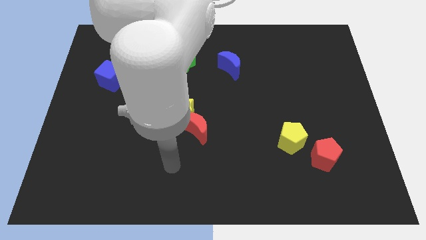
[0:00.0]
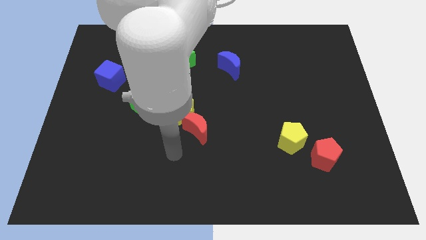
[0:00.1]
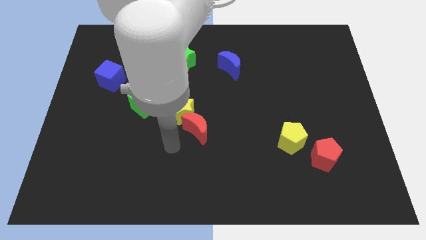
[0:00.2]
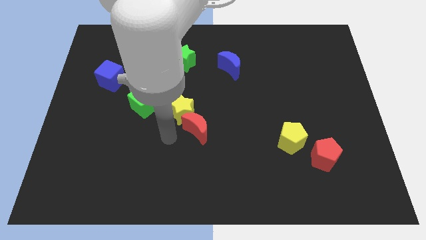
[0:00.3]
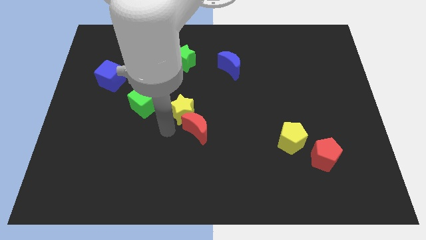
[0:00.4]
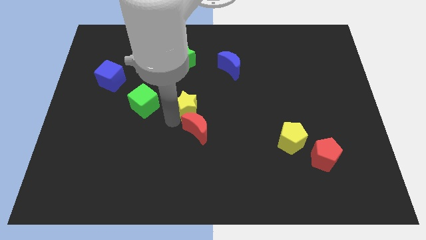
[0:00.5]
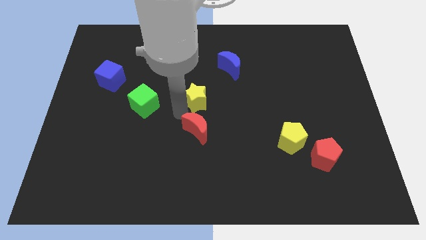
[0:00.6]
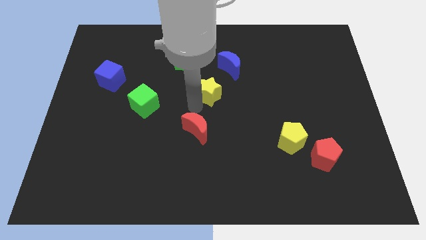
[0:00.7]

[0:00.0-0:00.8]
move the red moon away from the yellow star

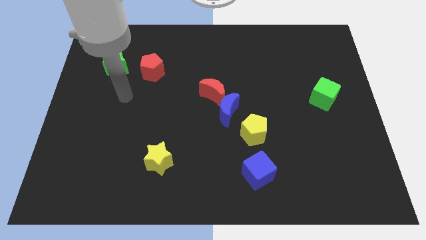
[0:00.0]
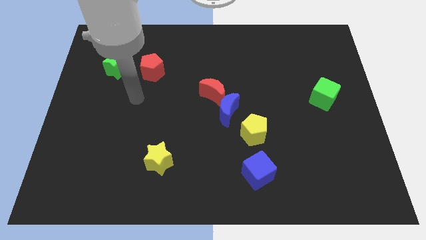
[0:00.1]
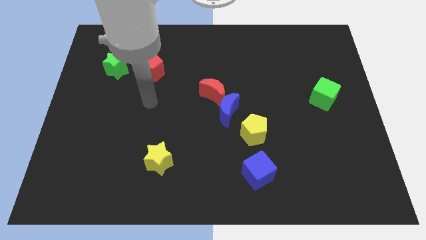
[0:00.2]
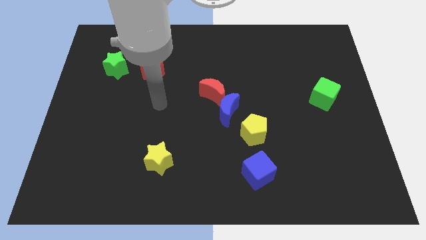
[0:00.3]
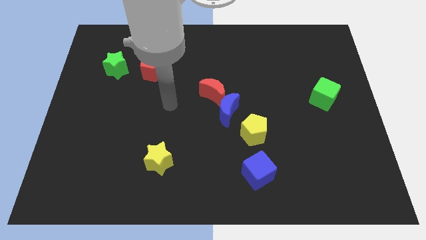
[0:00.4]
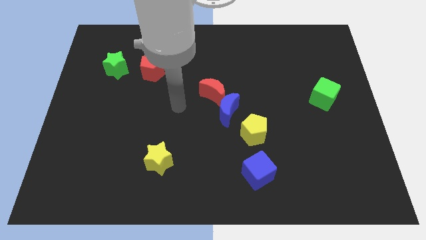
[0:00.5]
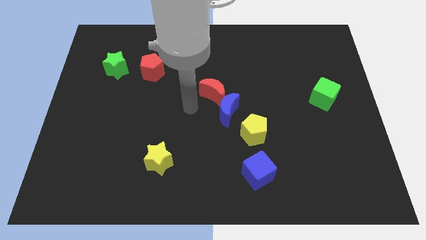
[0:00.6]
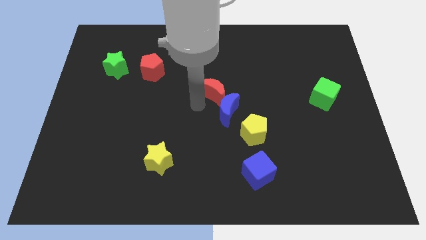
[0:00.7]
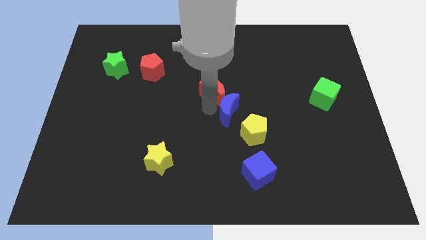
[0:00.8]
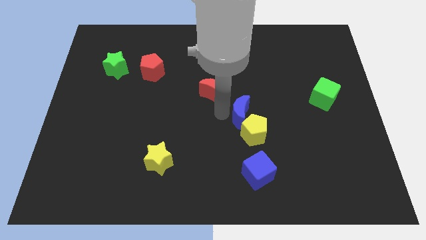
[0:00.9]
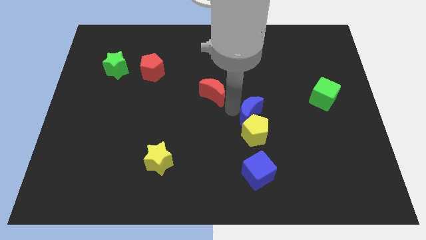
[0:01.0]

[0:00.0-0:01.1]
move the red moon away from the blue moon

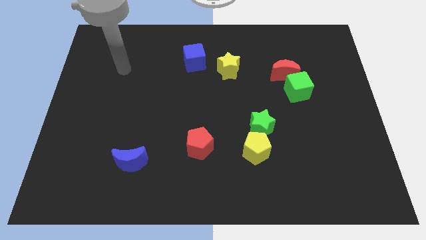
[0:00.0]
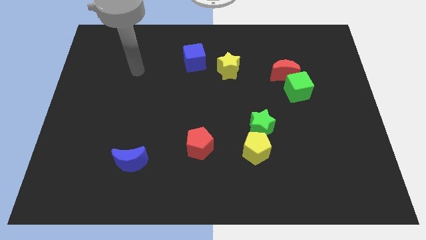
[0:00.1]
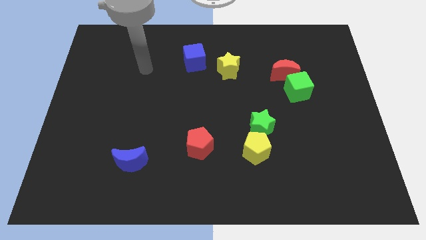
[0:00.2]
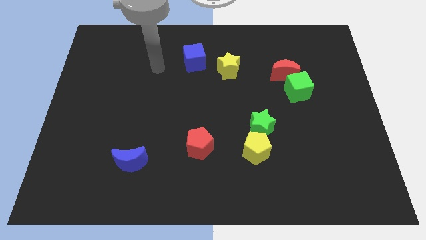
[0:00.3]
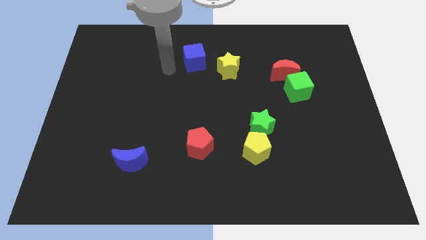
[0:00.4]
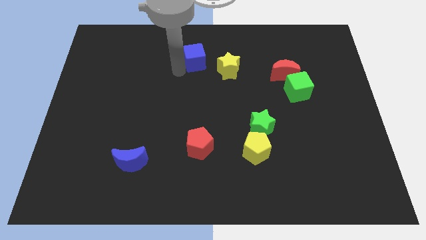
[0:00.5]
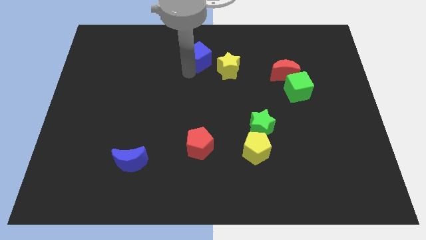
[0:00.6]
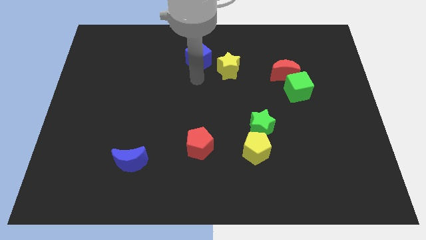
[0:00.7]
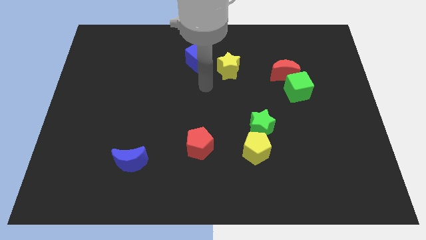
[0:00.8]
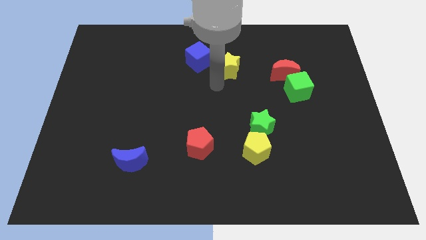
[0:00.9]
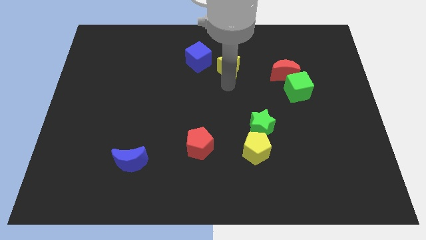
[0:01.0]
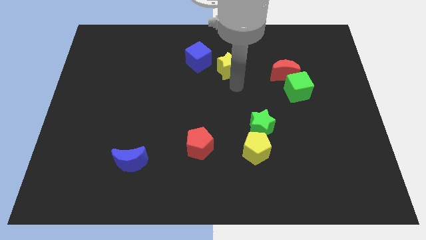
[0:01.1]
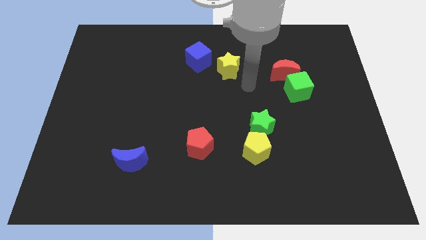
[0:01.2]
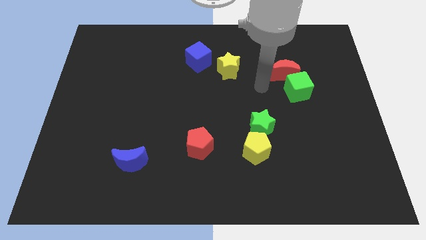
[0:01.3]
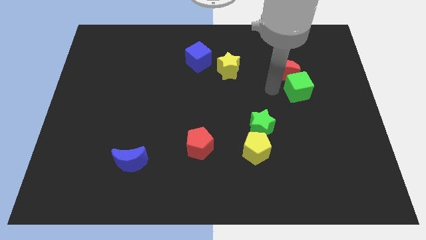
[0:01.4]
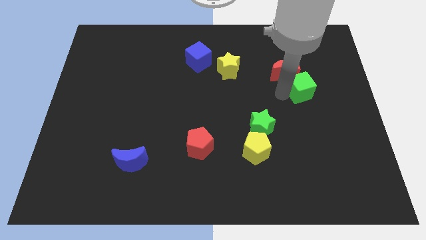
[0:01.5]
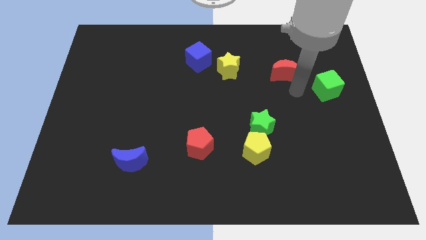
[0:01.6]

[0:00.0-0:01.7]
move the red moon away from the green cube

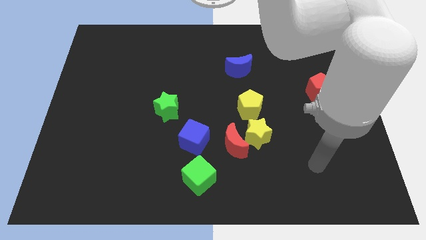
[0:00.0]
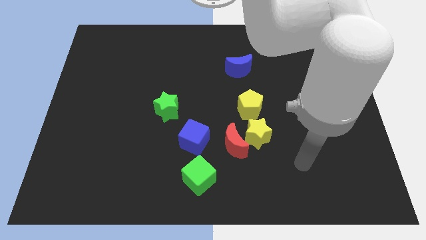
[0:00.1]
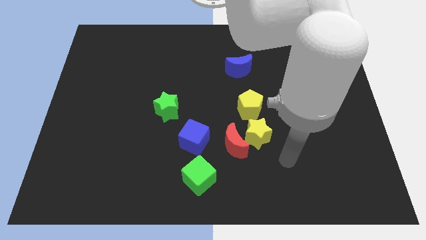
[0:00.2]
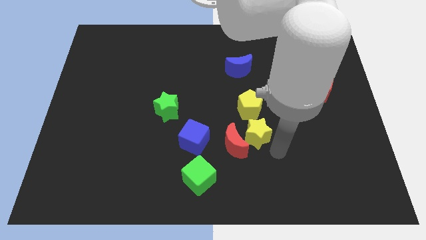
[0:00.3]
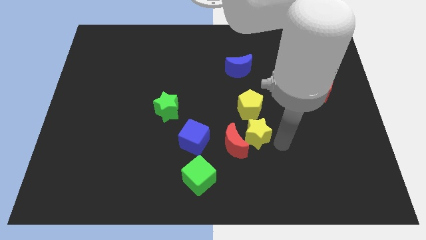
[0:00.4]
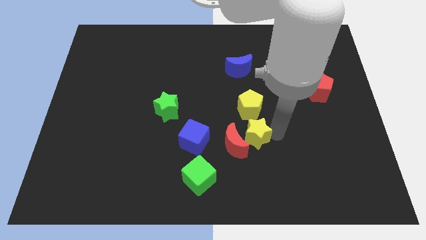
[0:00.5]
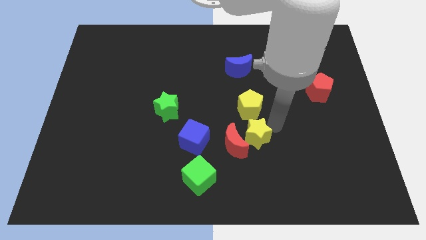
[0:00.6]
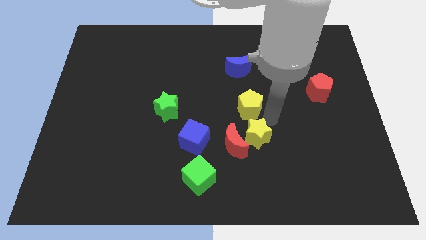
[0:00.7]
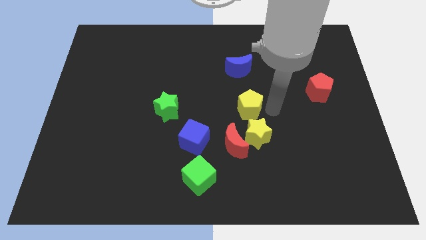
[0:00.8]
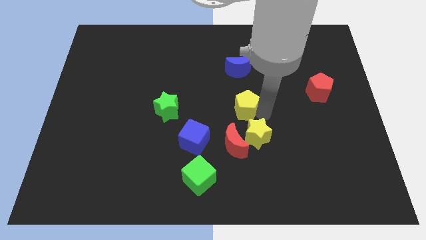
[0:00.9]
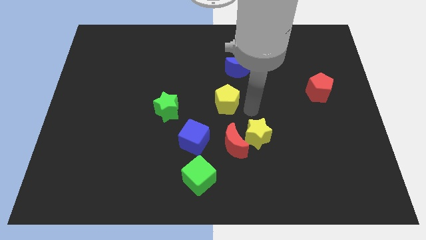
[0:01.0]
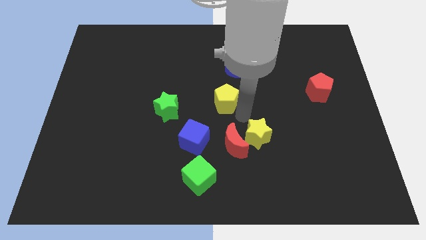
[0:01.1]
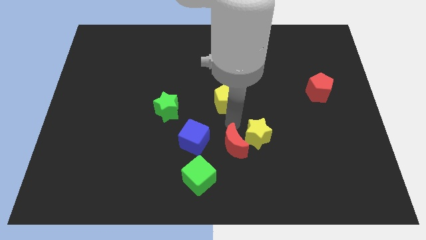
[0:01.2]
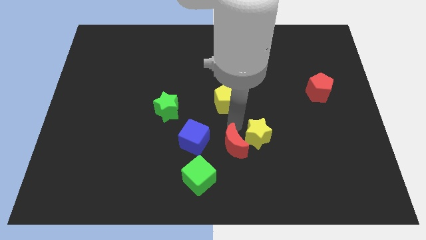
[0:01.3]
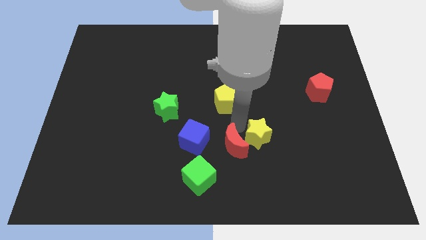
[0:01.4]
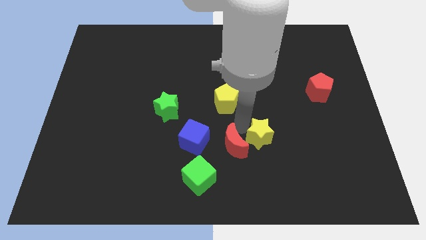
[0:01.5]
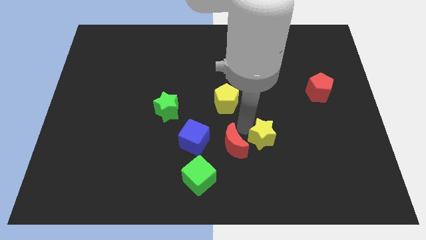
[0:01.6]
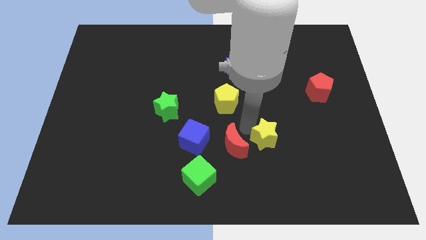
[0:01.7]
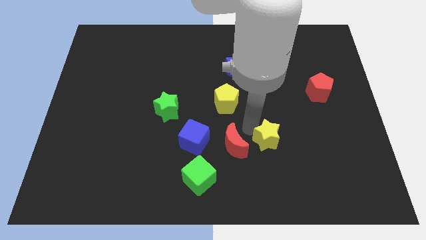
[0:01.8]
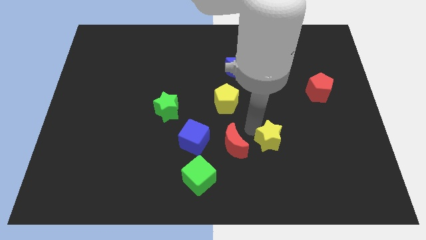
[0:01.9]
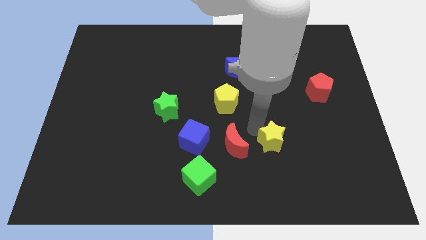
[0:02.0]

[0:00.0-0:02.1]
move the yellow star away from the red moon and yellow pentagon

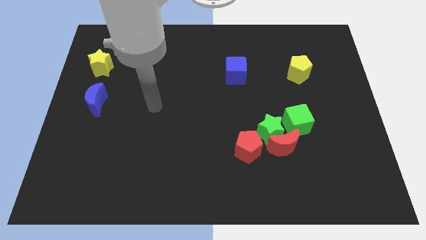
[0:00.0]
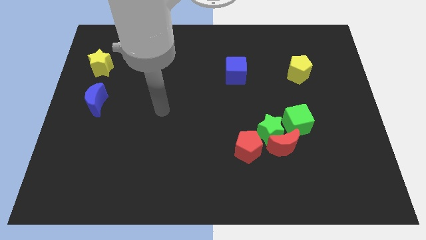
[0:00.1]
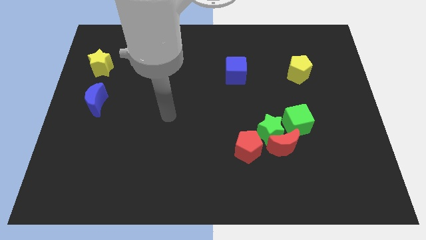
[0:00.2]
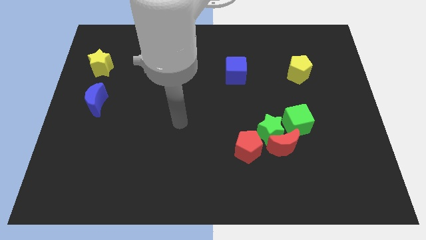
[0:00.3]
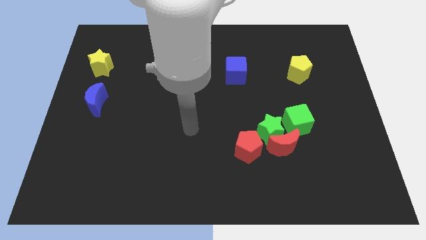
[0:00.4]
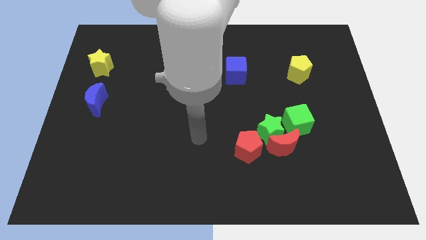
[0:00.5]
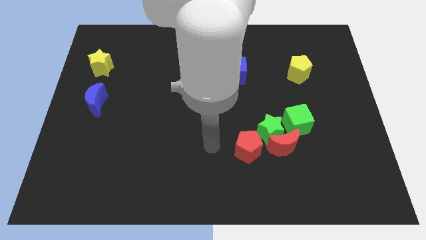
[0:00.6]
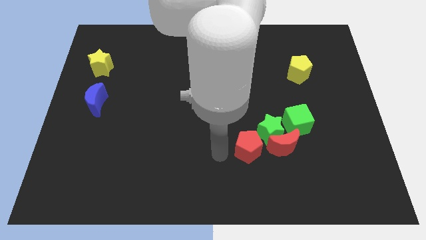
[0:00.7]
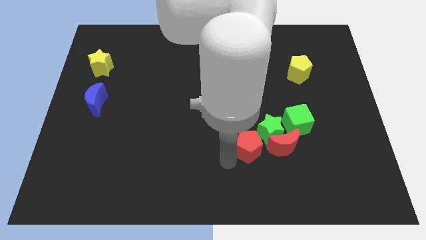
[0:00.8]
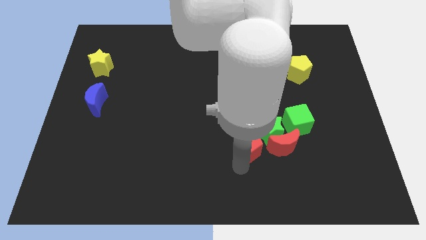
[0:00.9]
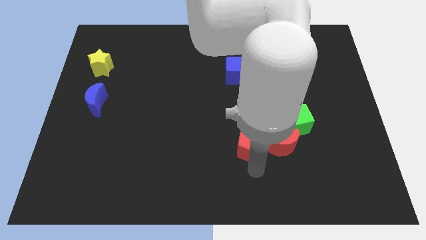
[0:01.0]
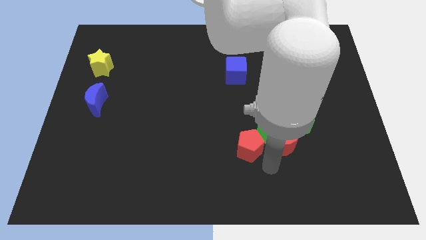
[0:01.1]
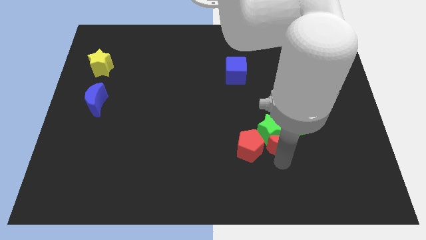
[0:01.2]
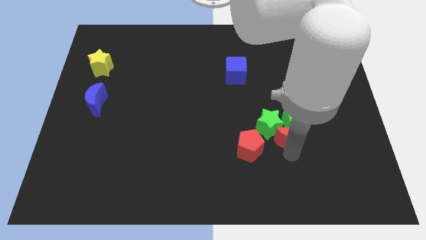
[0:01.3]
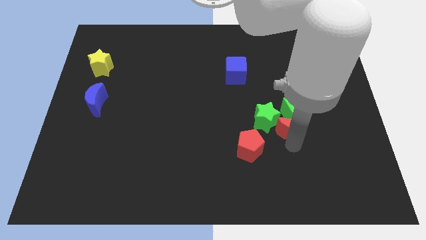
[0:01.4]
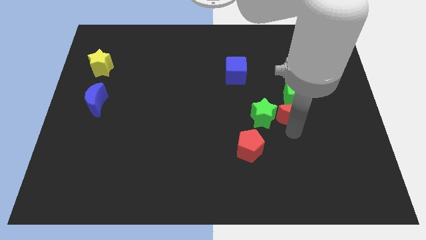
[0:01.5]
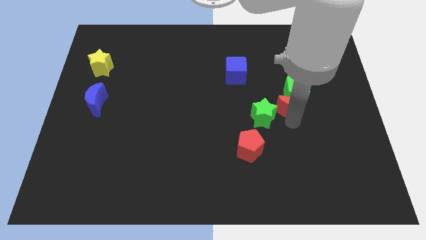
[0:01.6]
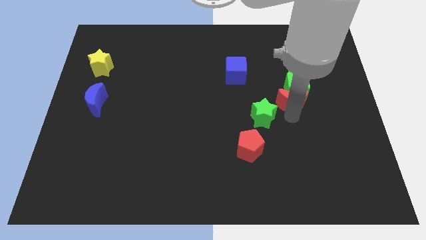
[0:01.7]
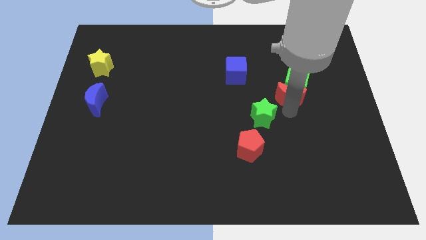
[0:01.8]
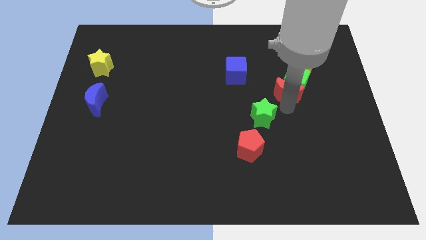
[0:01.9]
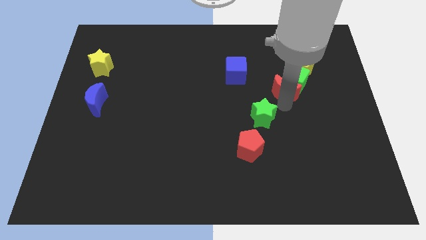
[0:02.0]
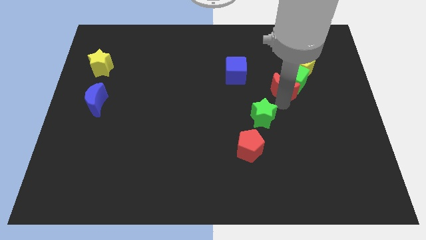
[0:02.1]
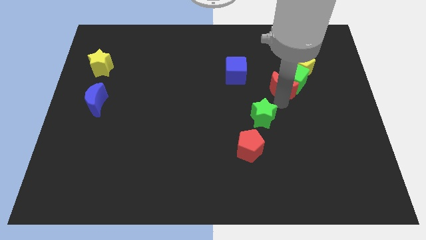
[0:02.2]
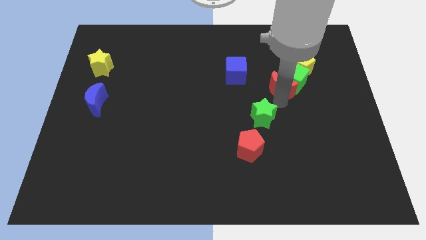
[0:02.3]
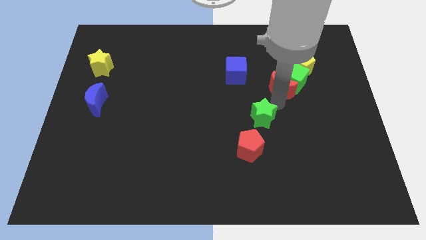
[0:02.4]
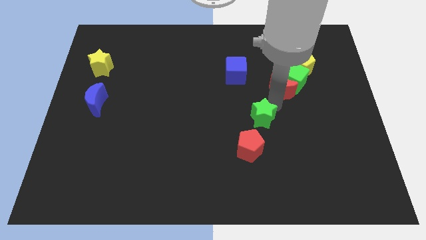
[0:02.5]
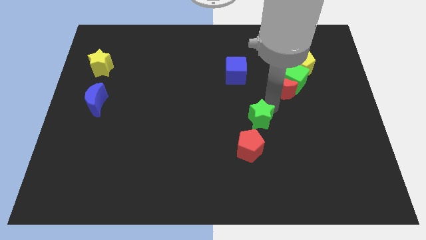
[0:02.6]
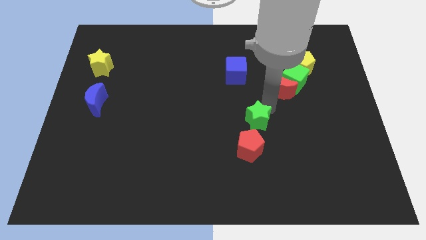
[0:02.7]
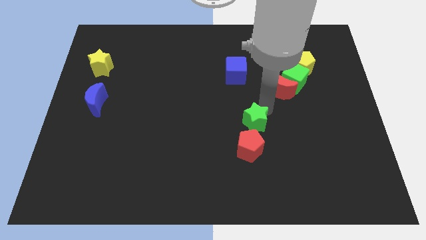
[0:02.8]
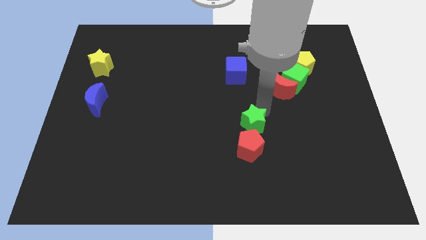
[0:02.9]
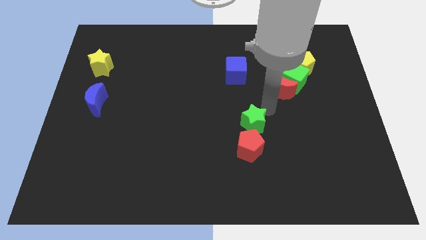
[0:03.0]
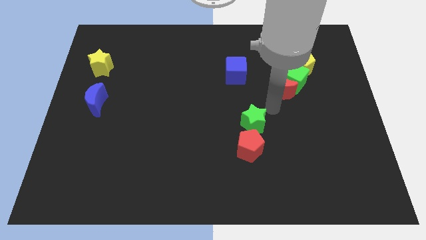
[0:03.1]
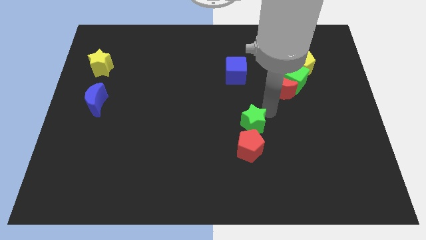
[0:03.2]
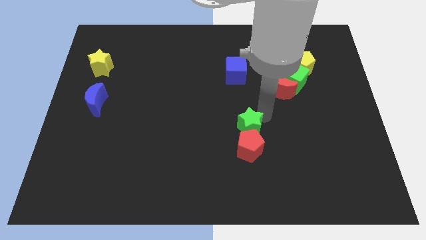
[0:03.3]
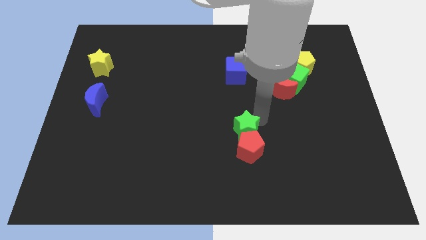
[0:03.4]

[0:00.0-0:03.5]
move the green star away from the group
